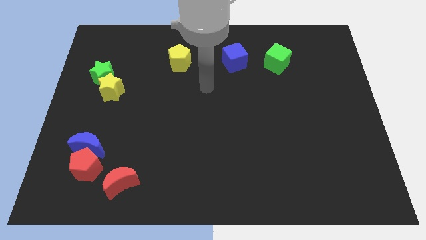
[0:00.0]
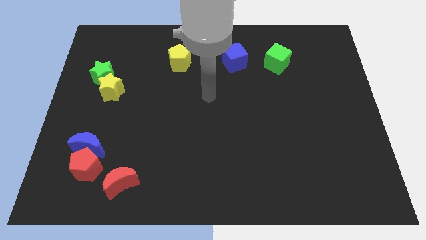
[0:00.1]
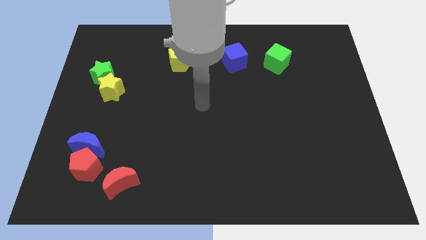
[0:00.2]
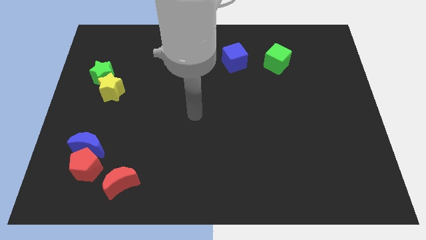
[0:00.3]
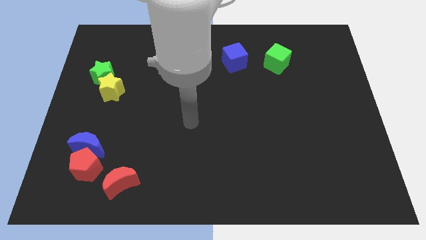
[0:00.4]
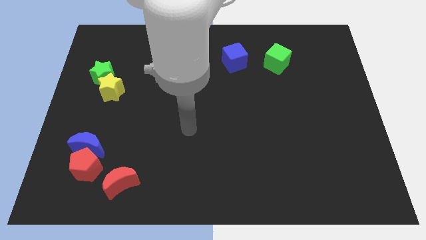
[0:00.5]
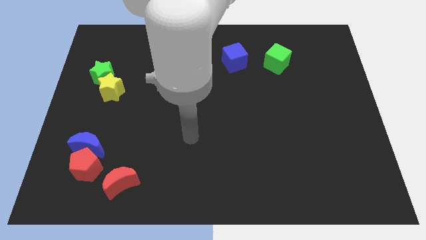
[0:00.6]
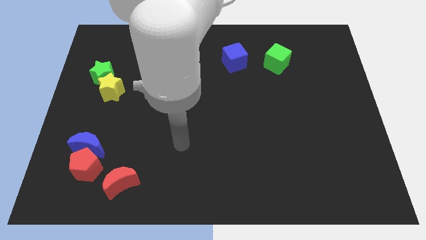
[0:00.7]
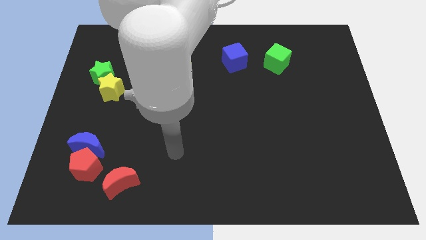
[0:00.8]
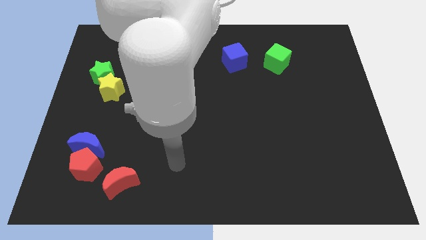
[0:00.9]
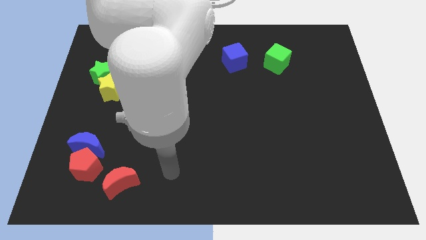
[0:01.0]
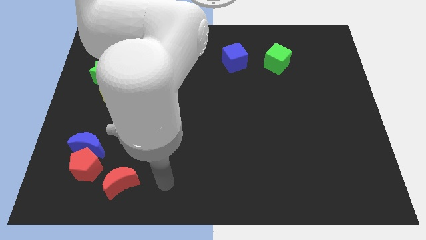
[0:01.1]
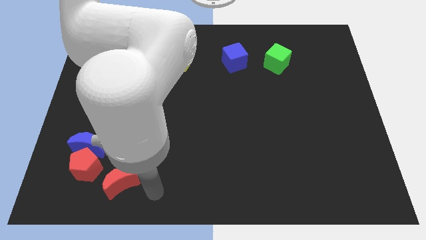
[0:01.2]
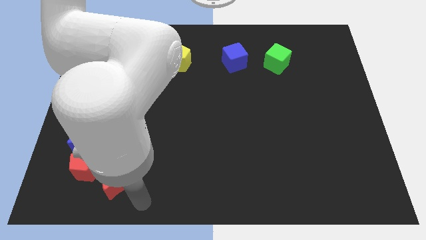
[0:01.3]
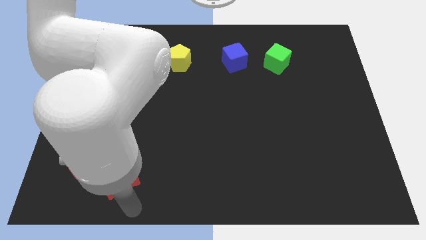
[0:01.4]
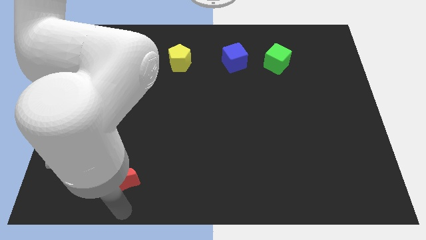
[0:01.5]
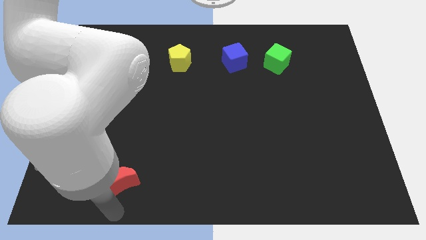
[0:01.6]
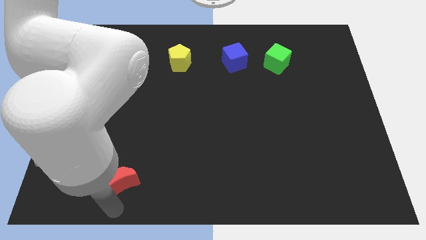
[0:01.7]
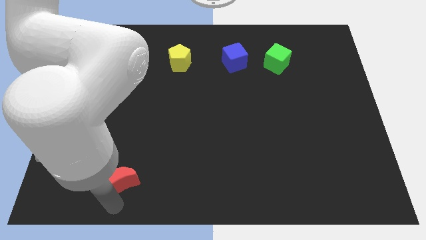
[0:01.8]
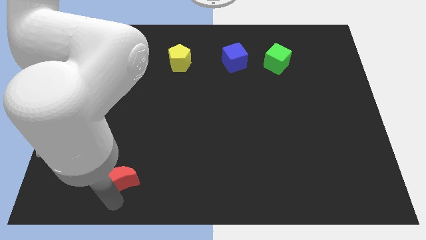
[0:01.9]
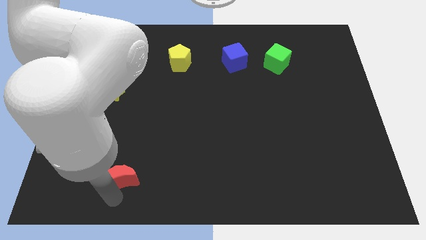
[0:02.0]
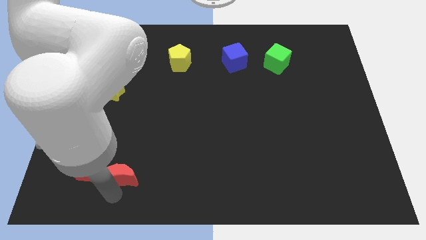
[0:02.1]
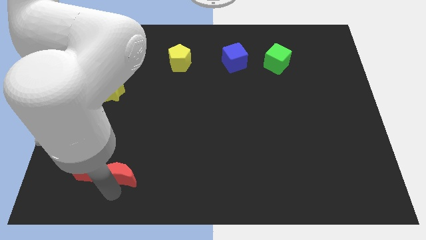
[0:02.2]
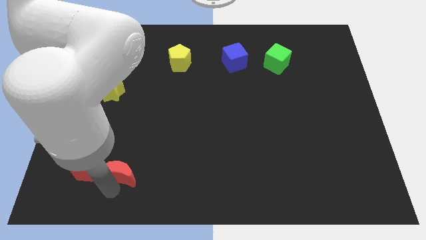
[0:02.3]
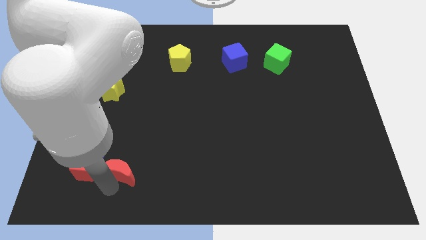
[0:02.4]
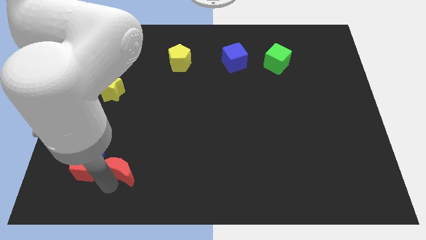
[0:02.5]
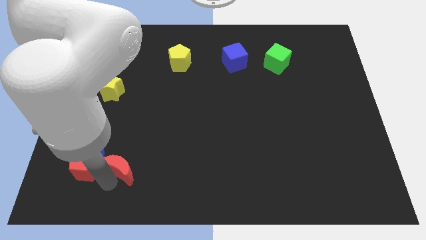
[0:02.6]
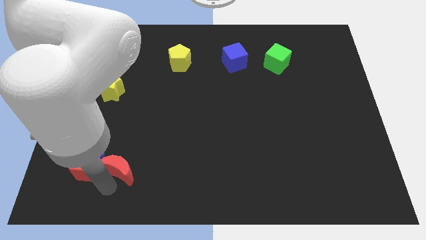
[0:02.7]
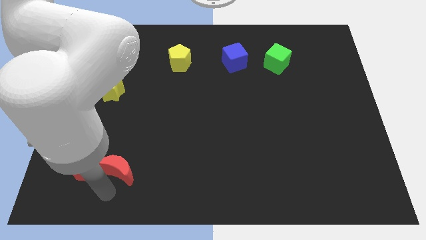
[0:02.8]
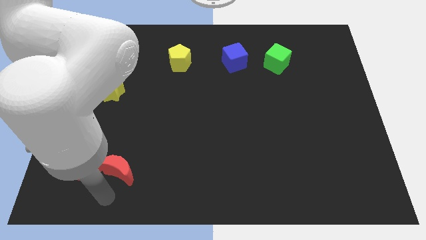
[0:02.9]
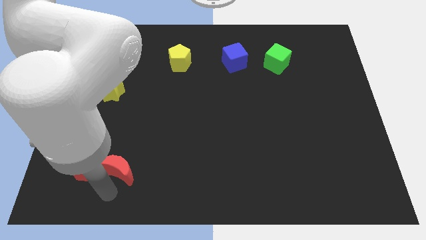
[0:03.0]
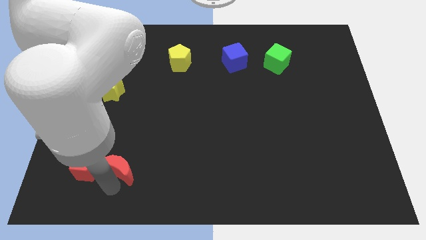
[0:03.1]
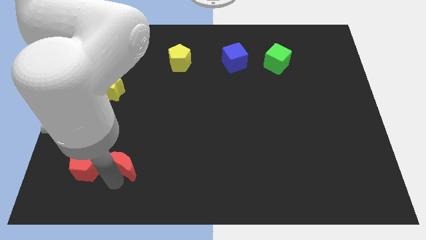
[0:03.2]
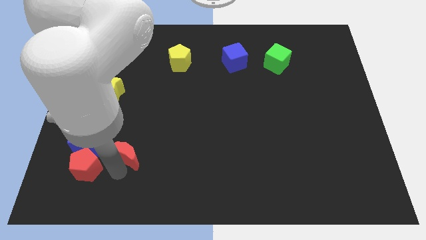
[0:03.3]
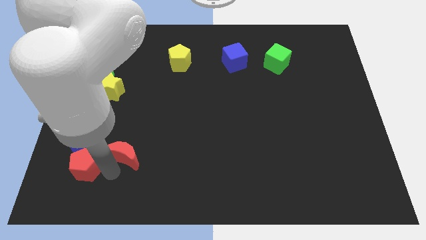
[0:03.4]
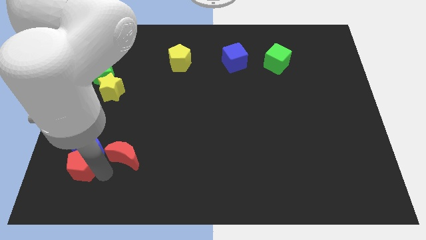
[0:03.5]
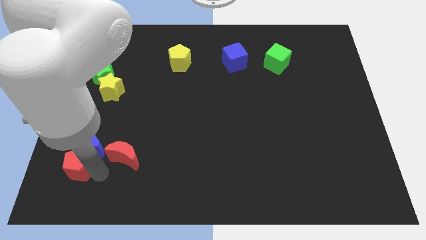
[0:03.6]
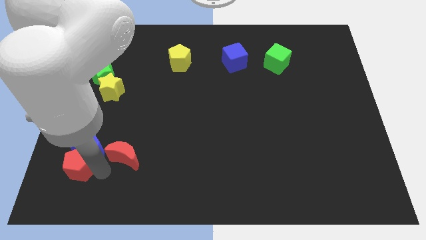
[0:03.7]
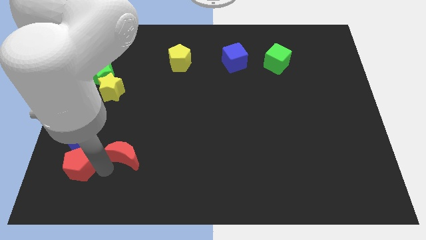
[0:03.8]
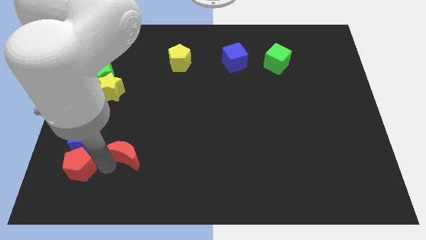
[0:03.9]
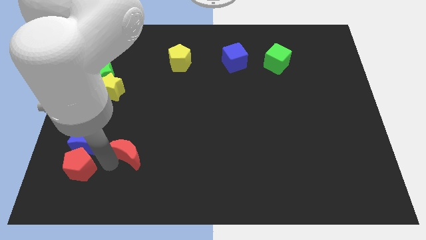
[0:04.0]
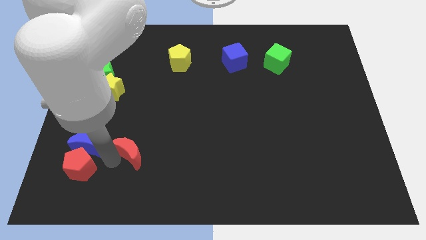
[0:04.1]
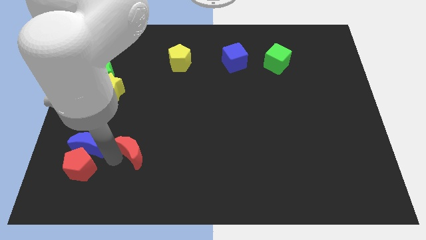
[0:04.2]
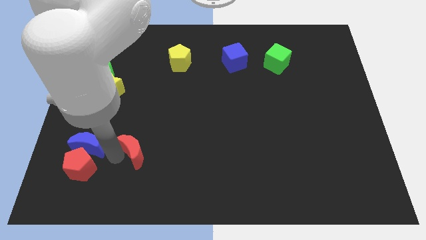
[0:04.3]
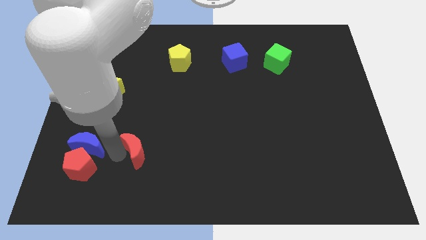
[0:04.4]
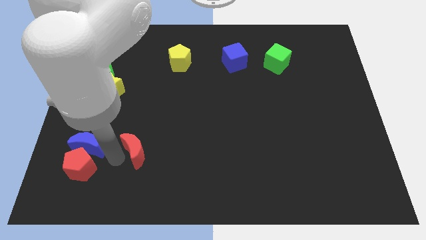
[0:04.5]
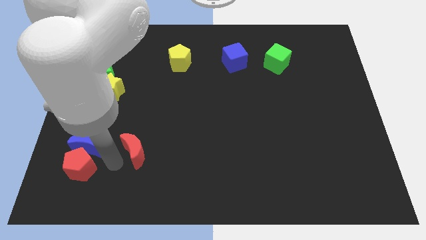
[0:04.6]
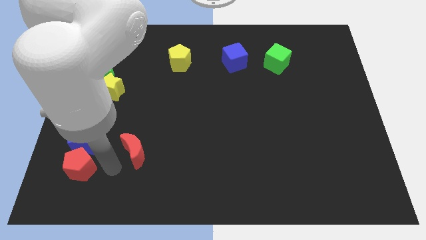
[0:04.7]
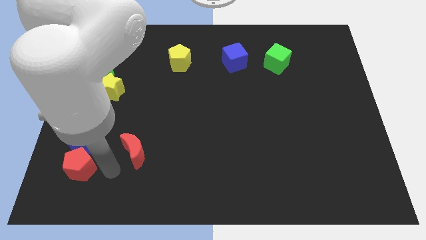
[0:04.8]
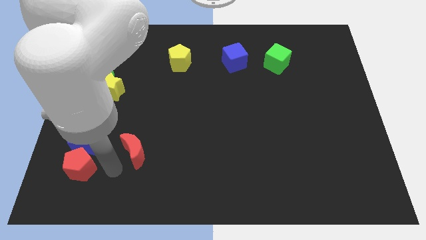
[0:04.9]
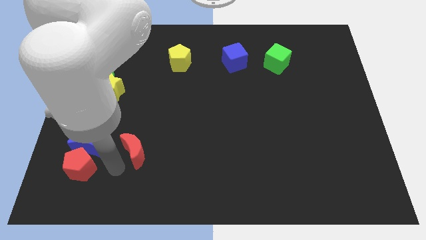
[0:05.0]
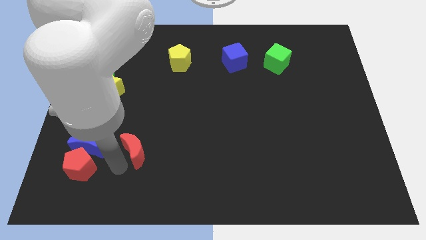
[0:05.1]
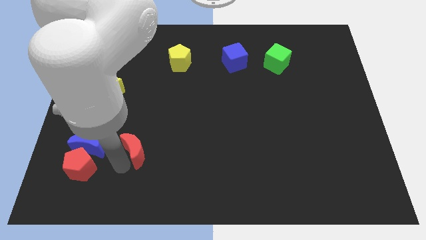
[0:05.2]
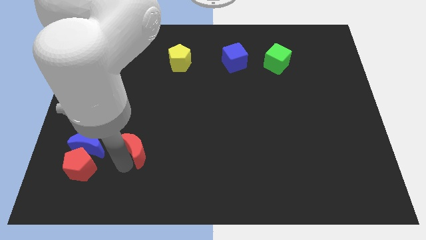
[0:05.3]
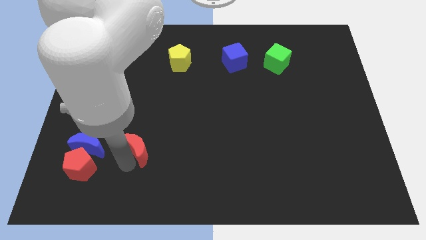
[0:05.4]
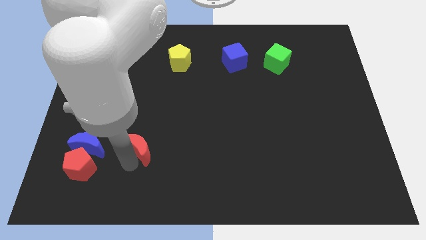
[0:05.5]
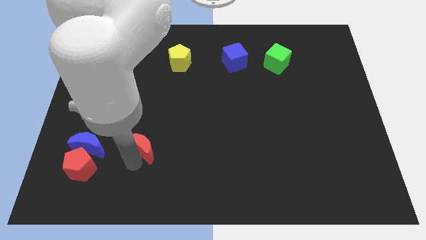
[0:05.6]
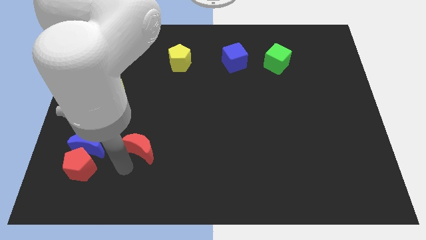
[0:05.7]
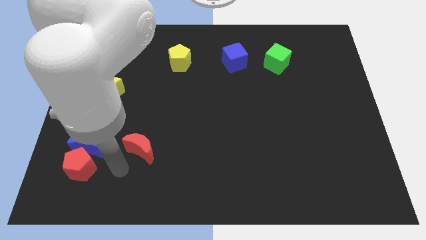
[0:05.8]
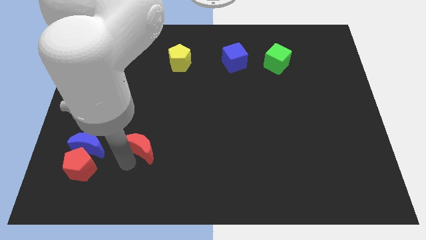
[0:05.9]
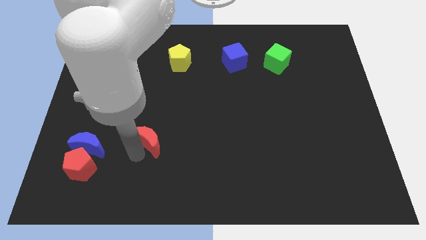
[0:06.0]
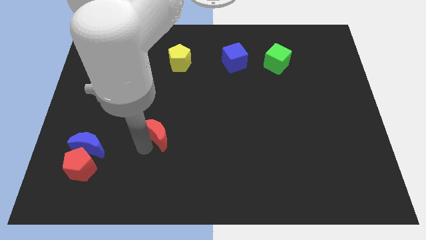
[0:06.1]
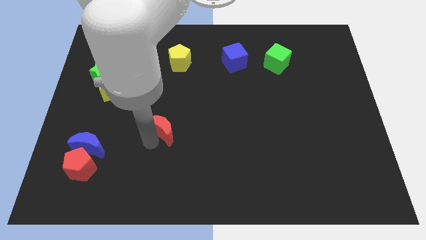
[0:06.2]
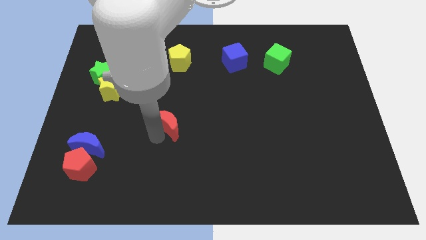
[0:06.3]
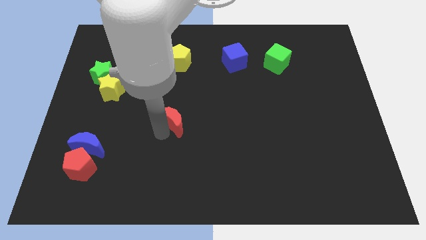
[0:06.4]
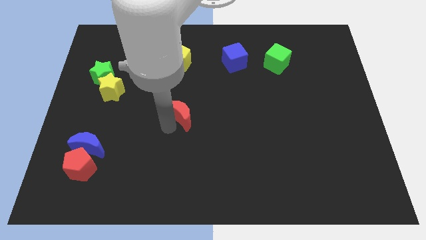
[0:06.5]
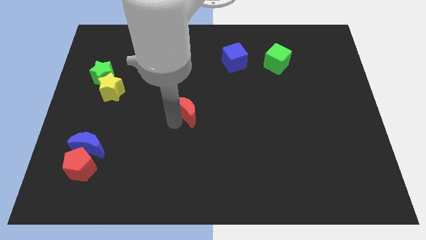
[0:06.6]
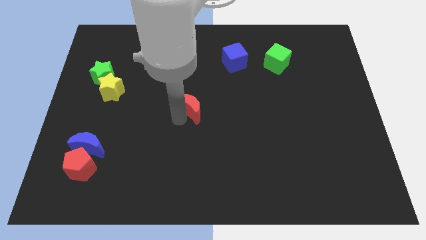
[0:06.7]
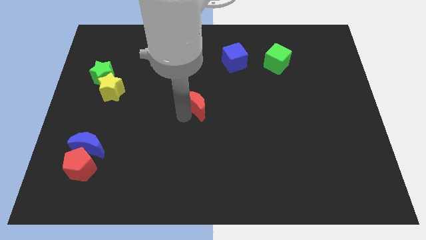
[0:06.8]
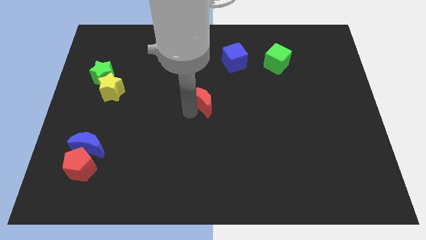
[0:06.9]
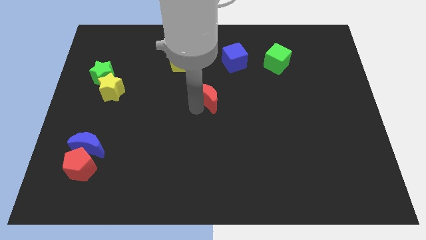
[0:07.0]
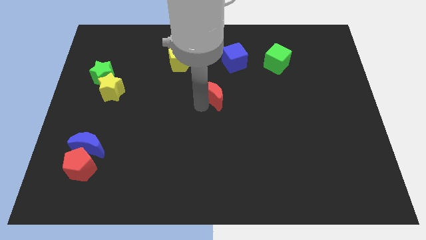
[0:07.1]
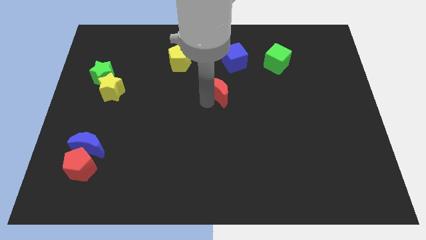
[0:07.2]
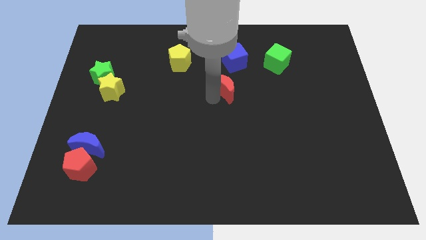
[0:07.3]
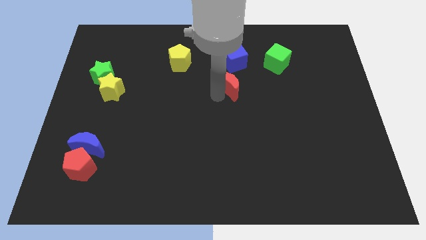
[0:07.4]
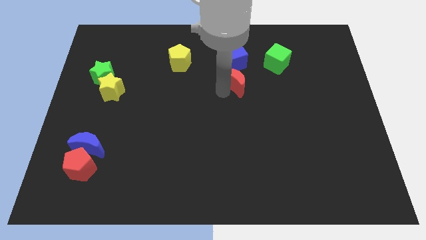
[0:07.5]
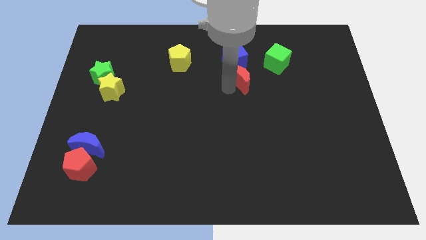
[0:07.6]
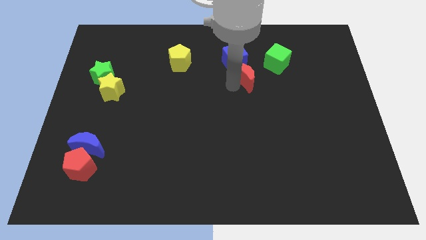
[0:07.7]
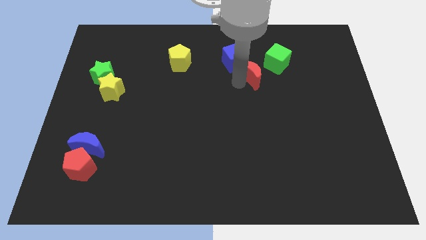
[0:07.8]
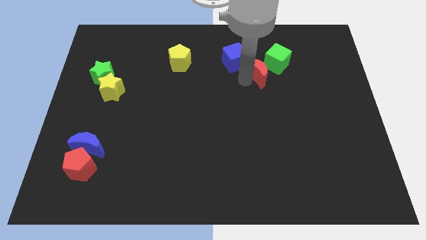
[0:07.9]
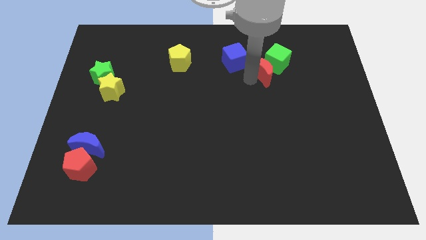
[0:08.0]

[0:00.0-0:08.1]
slide the red moon next to the green cube

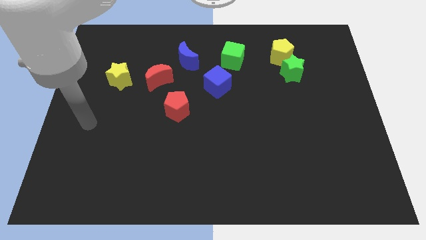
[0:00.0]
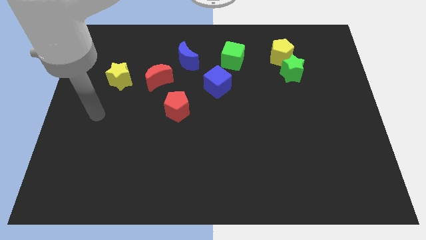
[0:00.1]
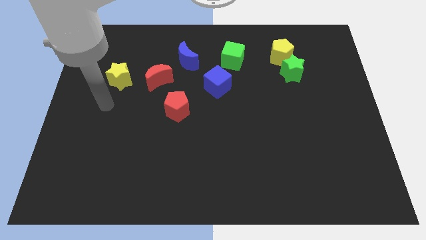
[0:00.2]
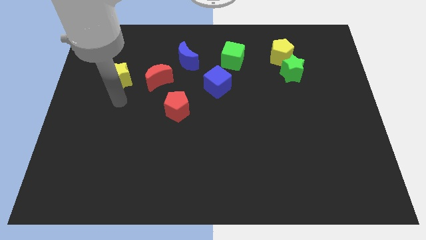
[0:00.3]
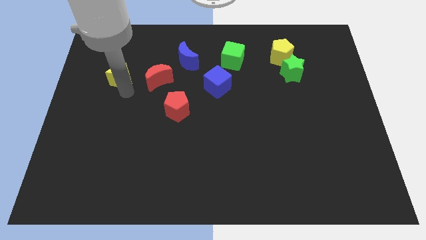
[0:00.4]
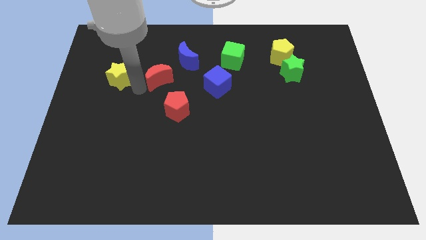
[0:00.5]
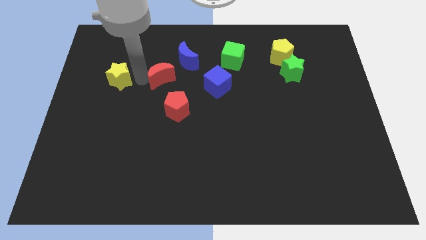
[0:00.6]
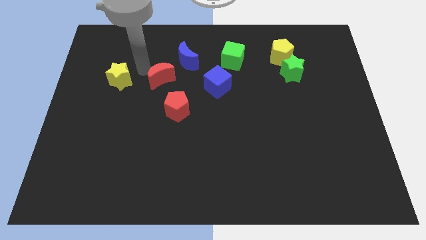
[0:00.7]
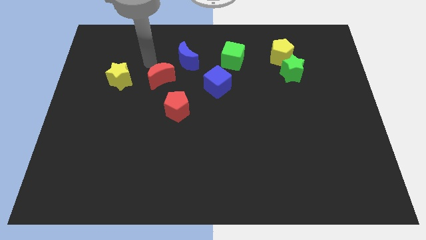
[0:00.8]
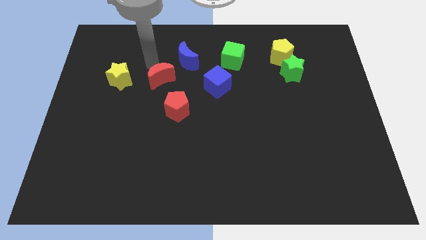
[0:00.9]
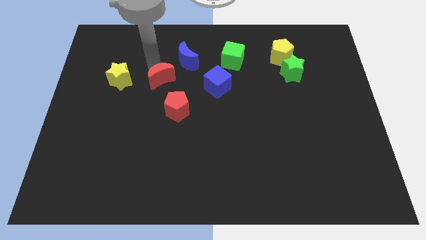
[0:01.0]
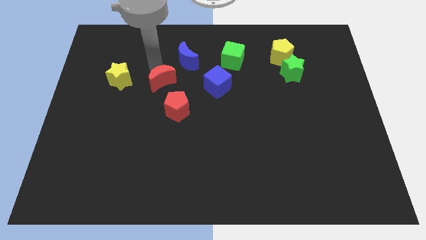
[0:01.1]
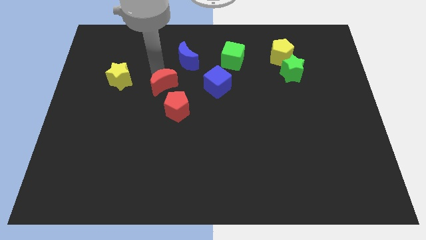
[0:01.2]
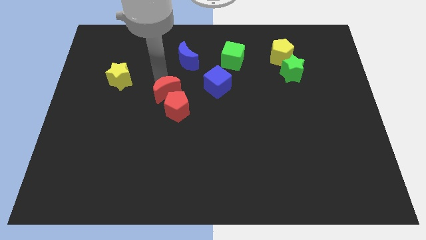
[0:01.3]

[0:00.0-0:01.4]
put the red moon next to the red pentagon
